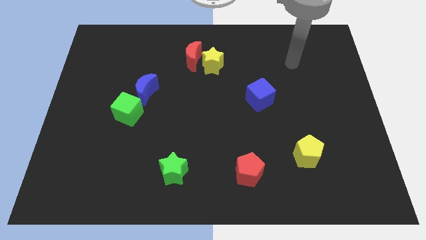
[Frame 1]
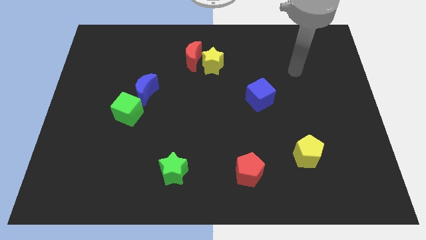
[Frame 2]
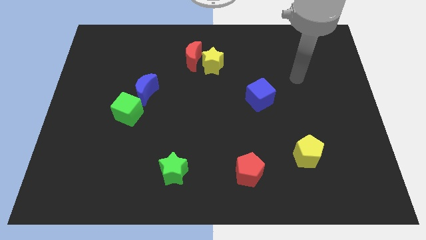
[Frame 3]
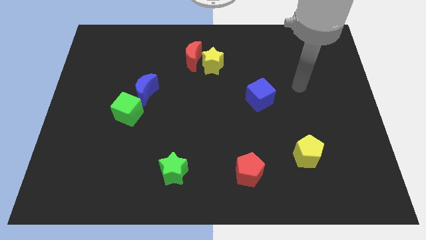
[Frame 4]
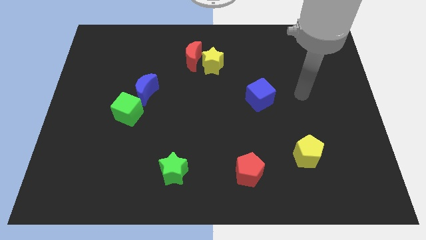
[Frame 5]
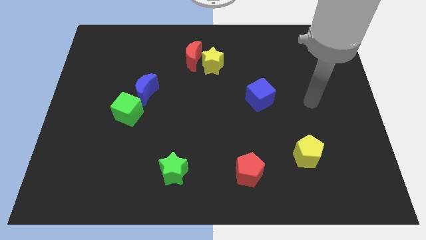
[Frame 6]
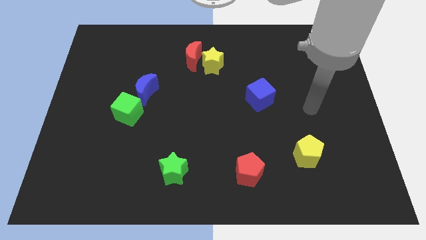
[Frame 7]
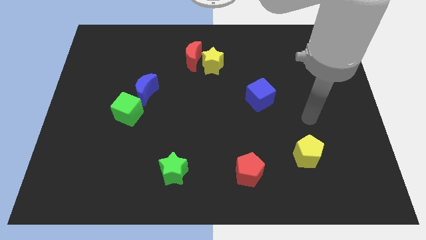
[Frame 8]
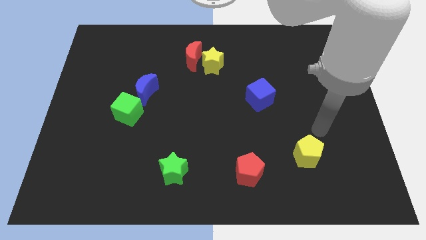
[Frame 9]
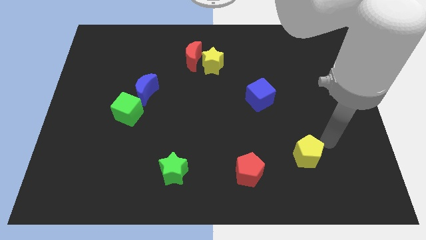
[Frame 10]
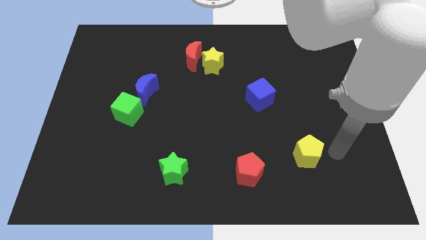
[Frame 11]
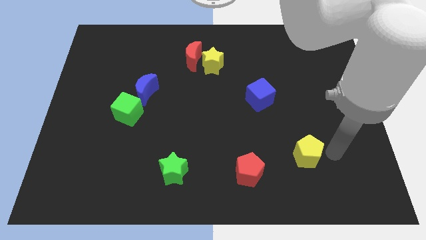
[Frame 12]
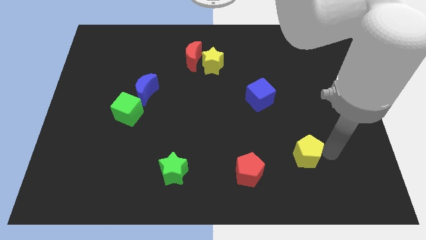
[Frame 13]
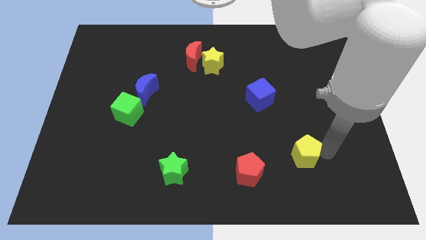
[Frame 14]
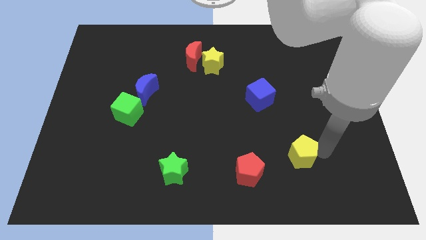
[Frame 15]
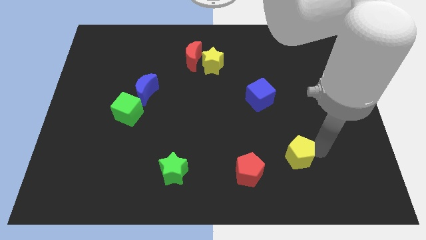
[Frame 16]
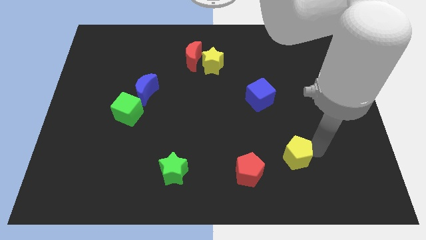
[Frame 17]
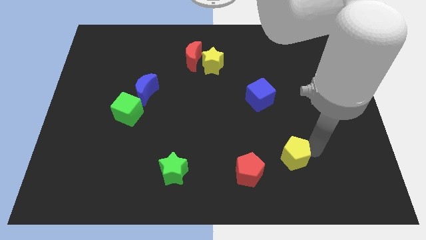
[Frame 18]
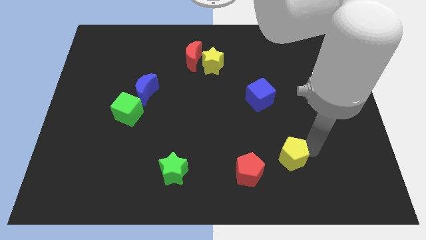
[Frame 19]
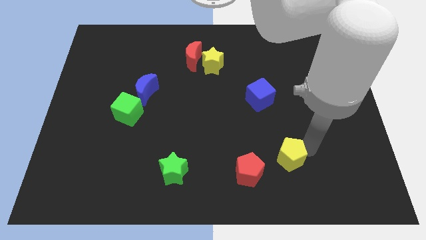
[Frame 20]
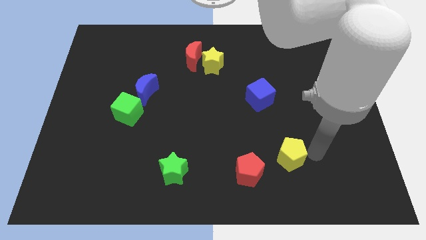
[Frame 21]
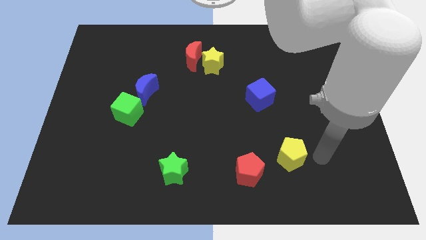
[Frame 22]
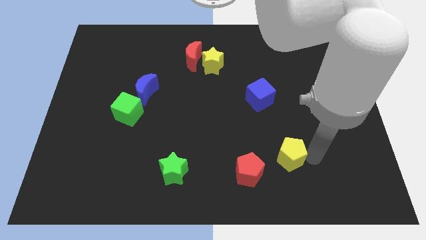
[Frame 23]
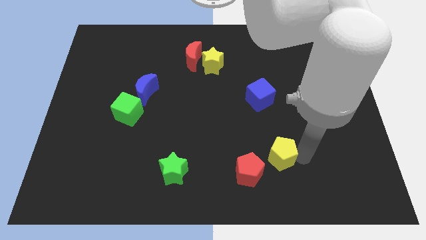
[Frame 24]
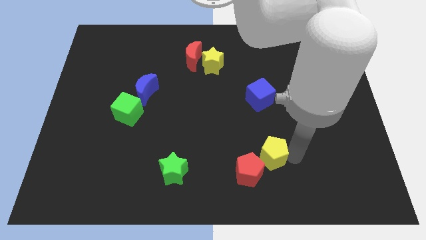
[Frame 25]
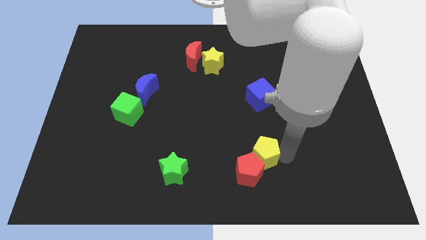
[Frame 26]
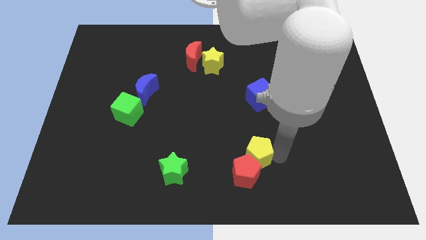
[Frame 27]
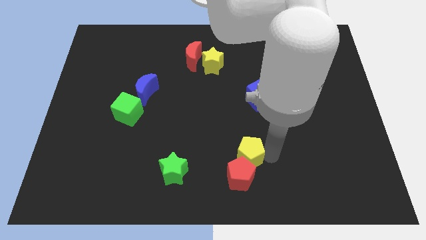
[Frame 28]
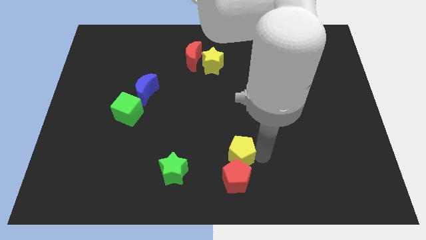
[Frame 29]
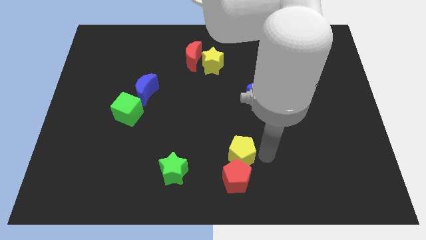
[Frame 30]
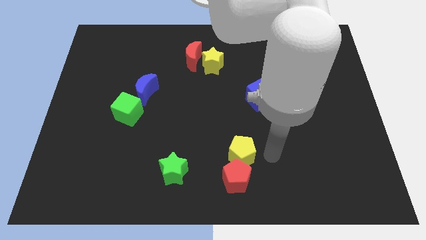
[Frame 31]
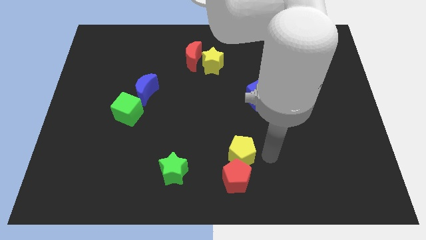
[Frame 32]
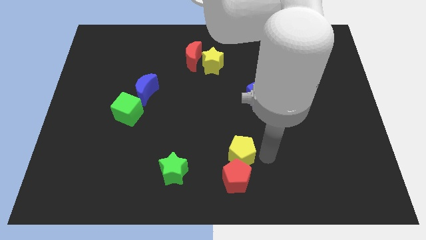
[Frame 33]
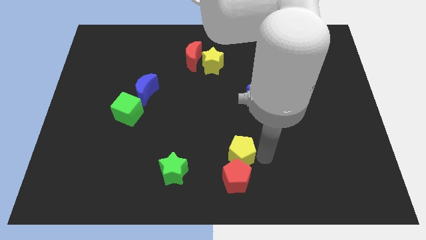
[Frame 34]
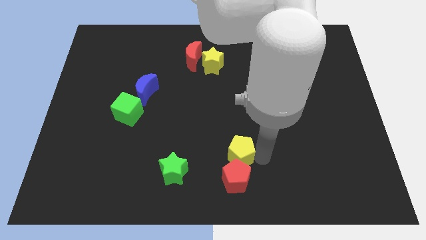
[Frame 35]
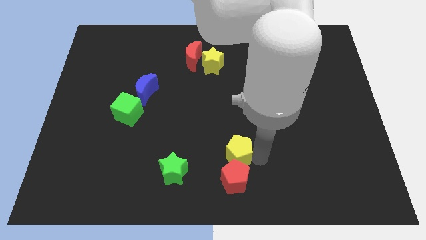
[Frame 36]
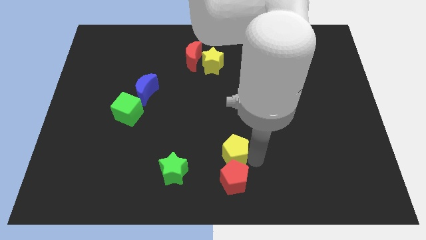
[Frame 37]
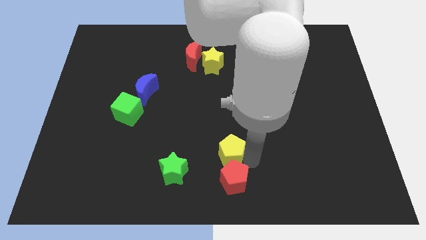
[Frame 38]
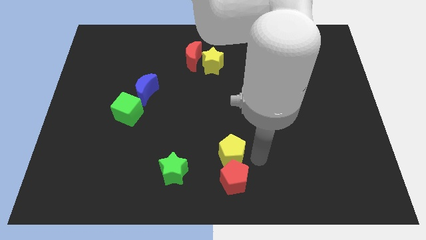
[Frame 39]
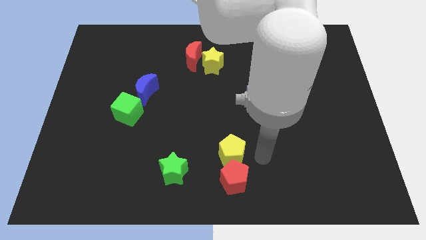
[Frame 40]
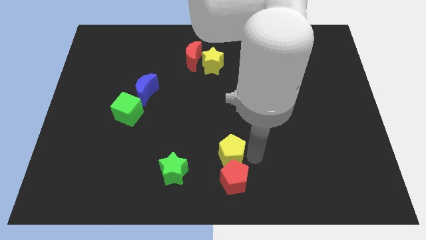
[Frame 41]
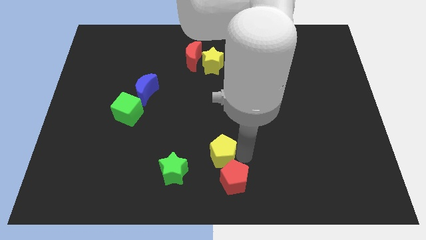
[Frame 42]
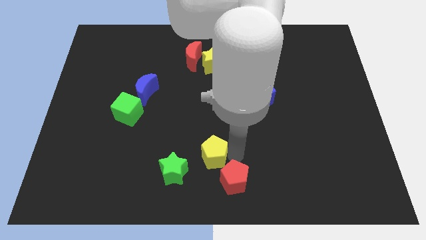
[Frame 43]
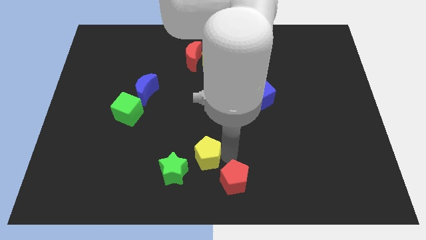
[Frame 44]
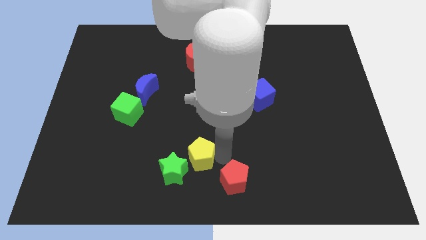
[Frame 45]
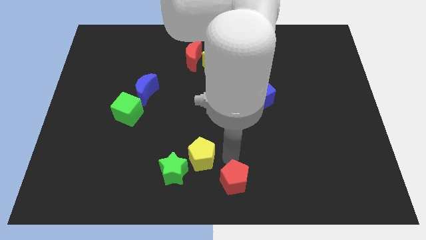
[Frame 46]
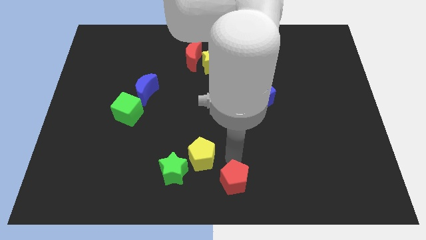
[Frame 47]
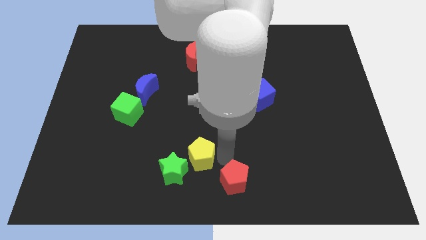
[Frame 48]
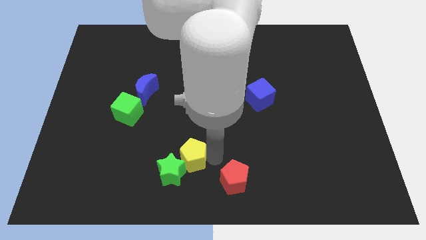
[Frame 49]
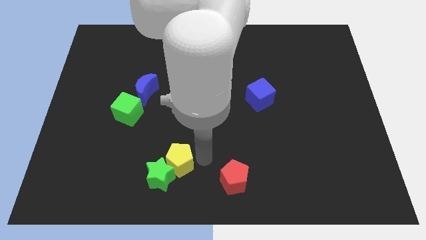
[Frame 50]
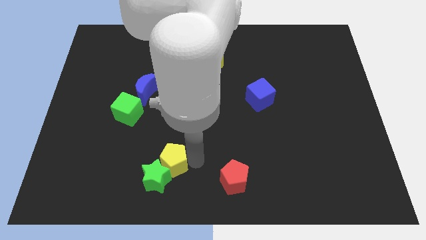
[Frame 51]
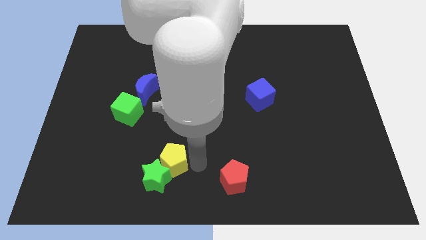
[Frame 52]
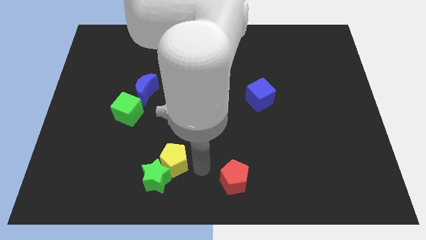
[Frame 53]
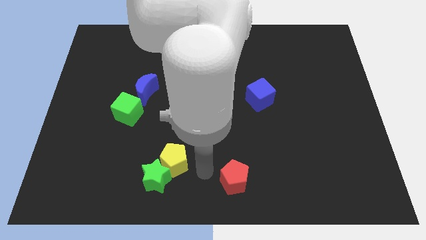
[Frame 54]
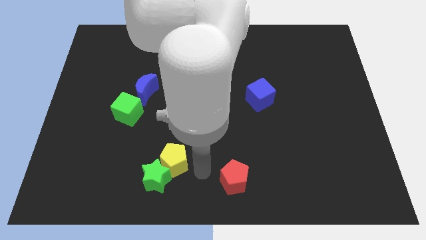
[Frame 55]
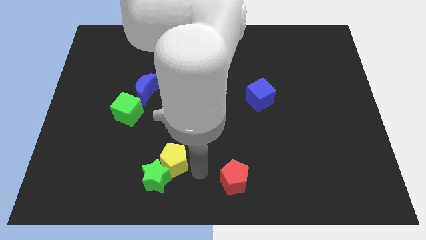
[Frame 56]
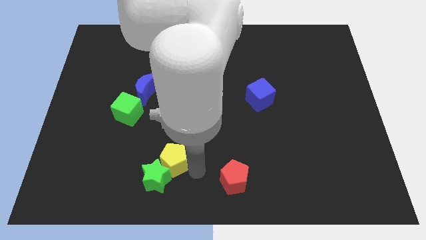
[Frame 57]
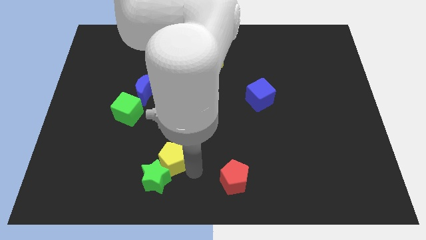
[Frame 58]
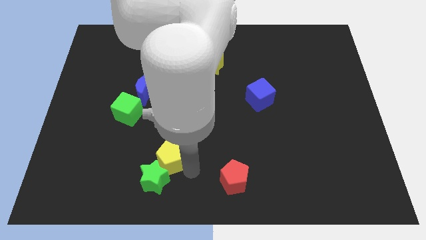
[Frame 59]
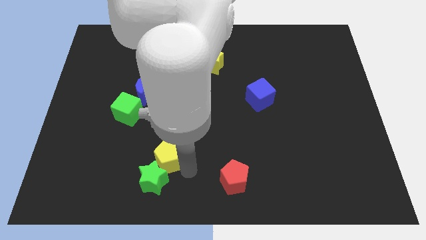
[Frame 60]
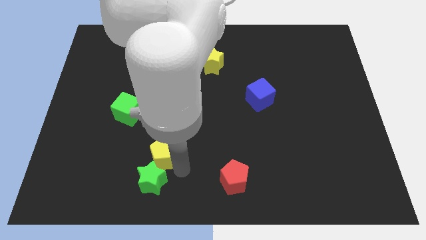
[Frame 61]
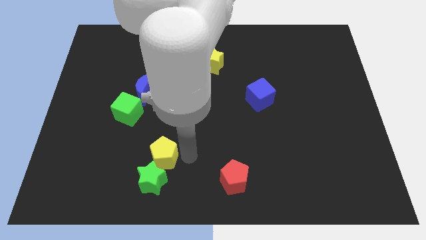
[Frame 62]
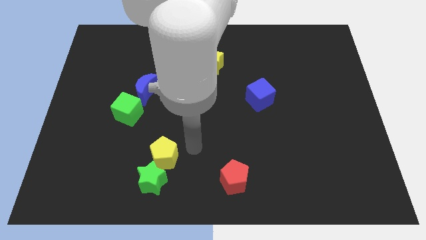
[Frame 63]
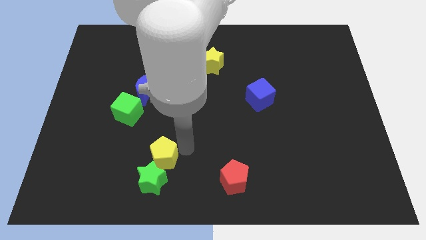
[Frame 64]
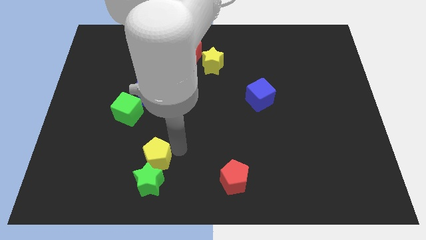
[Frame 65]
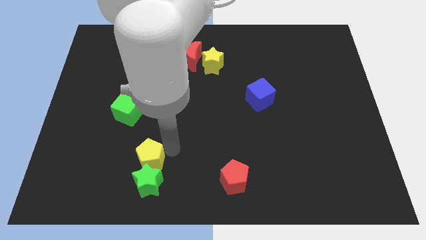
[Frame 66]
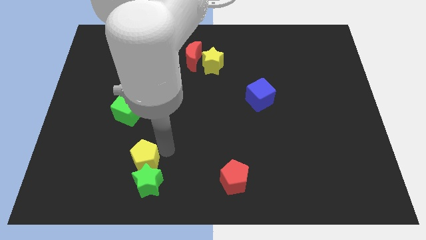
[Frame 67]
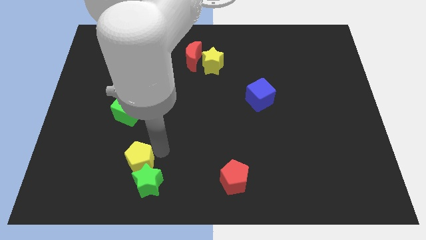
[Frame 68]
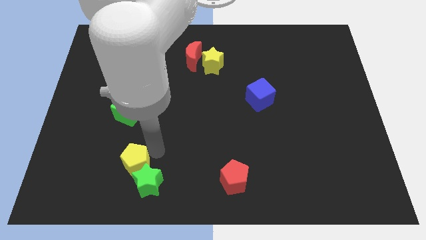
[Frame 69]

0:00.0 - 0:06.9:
put the yellow pentagon to the left side of the green star

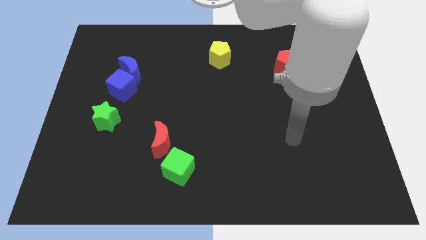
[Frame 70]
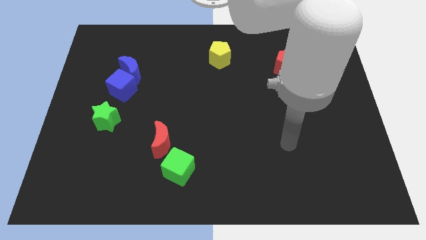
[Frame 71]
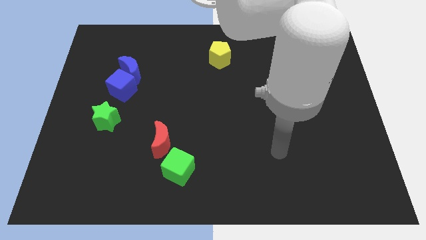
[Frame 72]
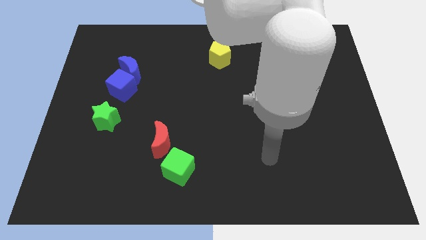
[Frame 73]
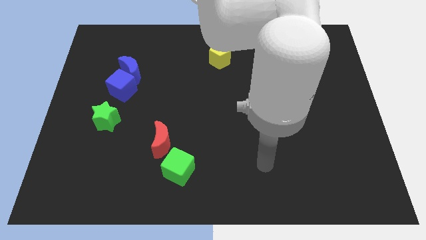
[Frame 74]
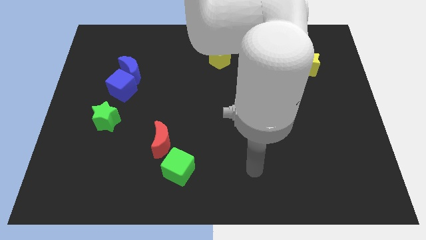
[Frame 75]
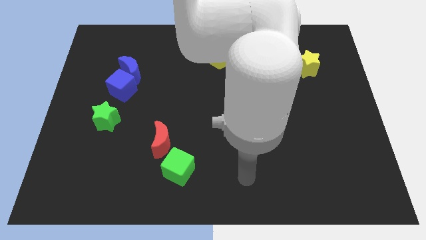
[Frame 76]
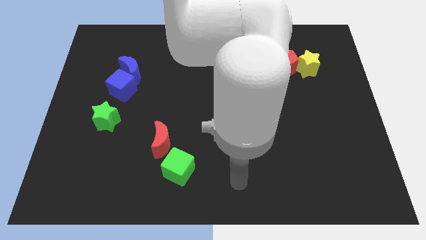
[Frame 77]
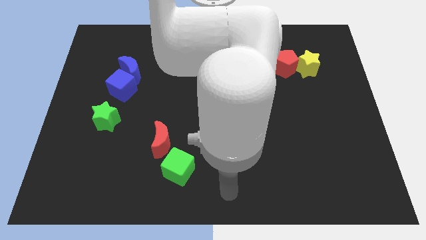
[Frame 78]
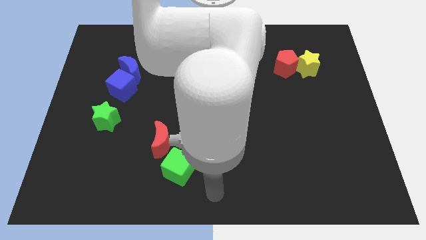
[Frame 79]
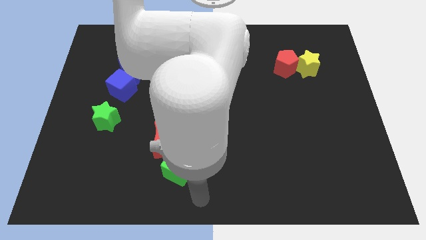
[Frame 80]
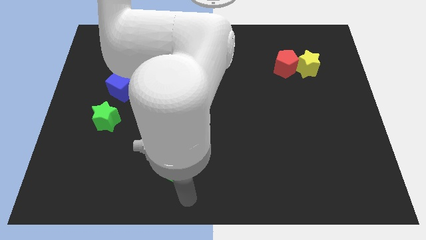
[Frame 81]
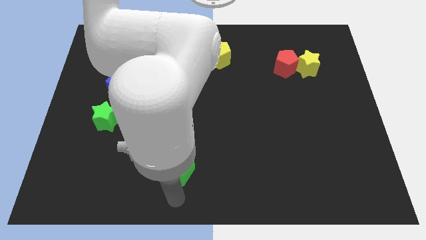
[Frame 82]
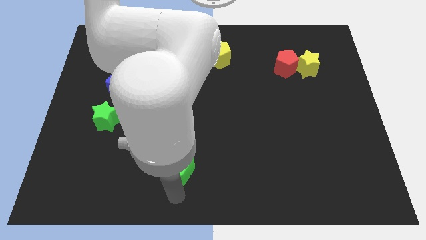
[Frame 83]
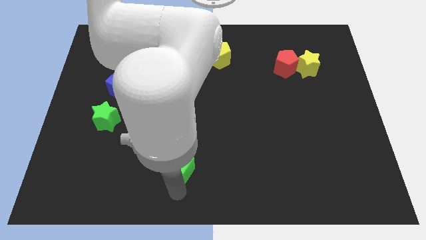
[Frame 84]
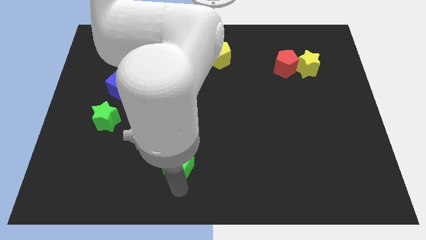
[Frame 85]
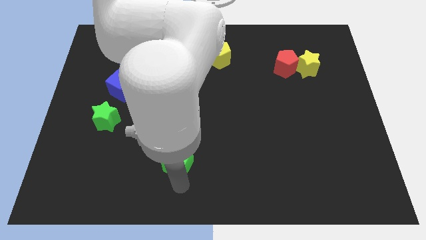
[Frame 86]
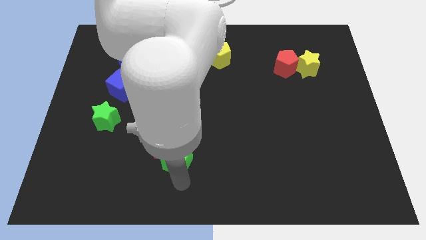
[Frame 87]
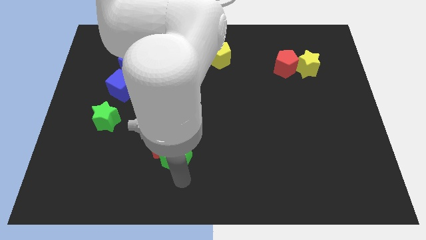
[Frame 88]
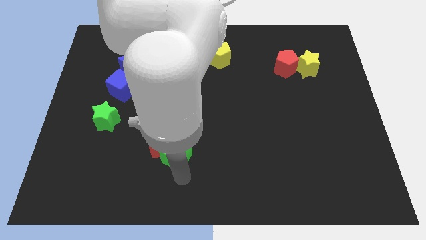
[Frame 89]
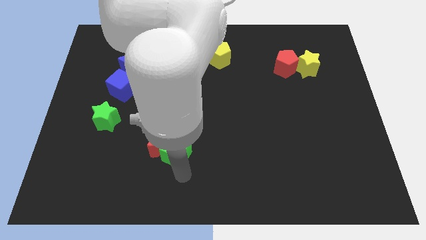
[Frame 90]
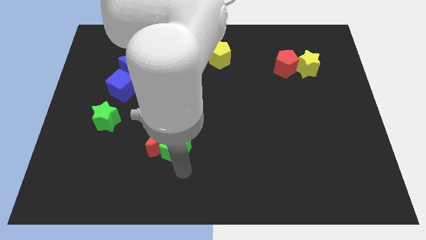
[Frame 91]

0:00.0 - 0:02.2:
move the green cube to the top right side of the red moon
